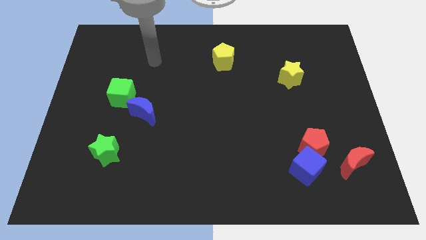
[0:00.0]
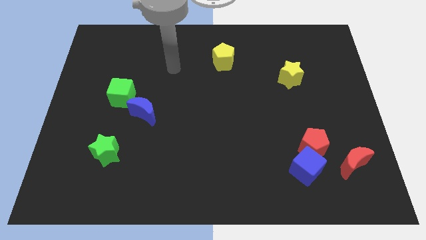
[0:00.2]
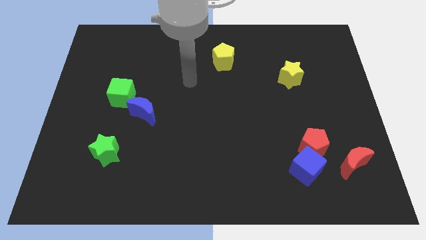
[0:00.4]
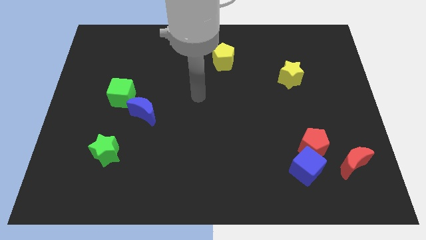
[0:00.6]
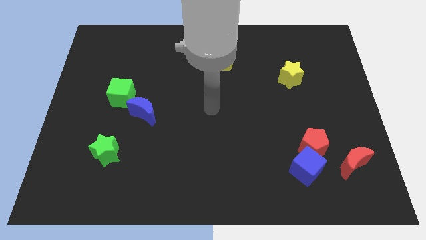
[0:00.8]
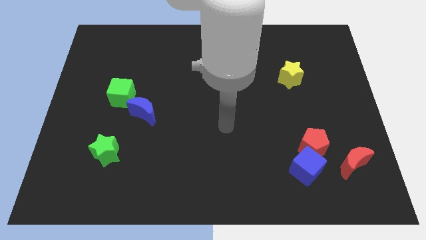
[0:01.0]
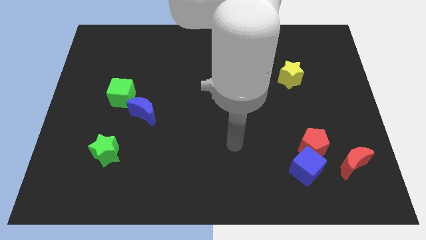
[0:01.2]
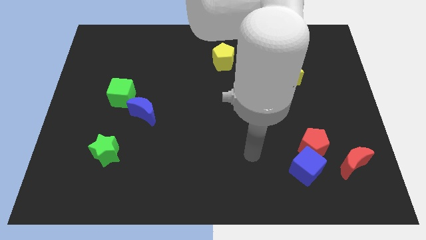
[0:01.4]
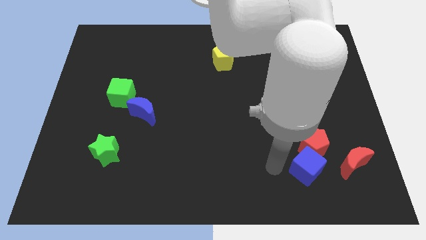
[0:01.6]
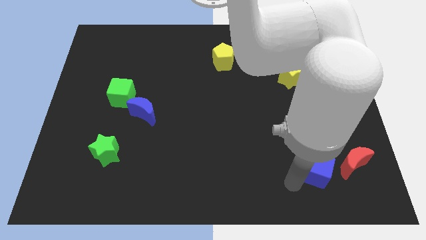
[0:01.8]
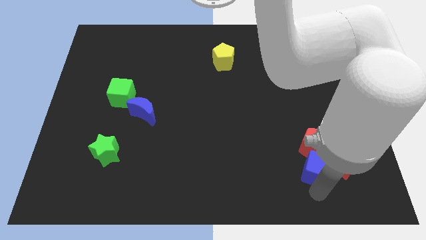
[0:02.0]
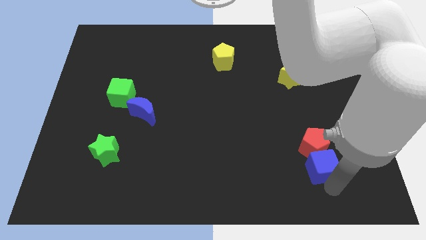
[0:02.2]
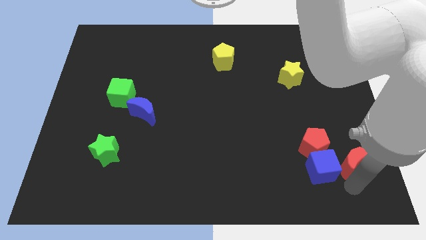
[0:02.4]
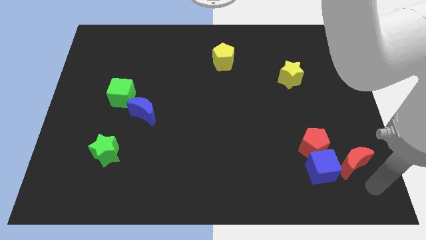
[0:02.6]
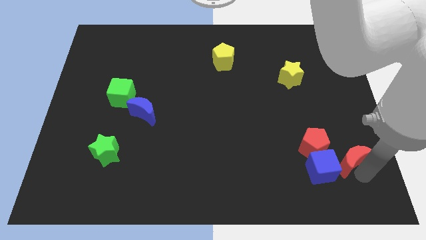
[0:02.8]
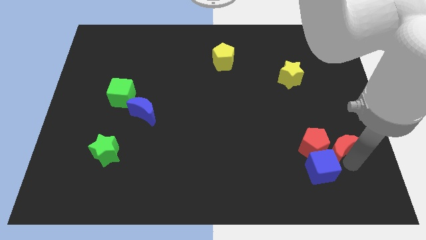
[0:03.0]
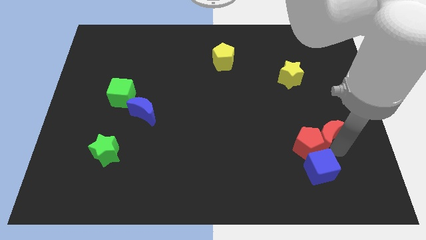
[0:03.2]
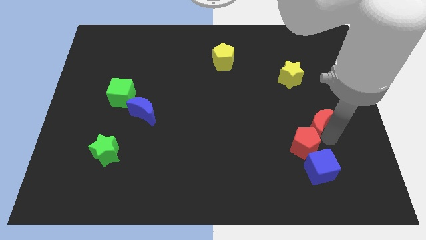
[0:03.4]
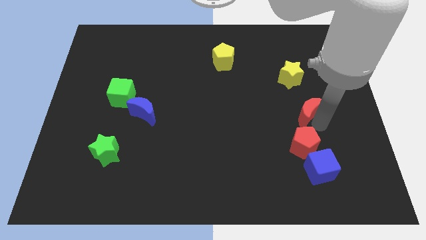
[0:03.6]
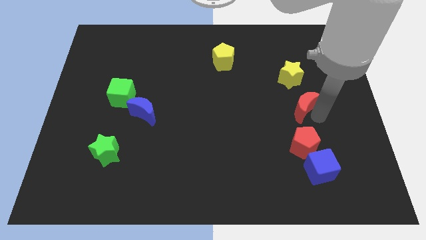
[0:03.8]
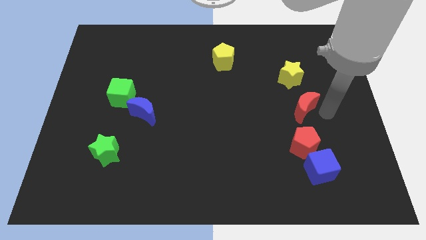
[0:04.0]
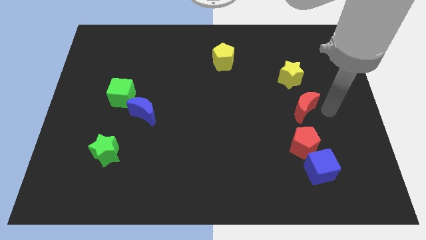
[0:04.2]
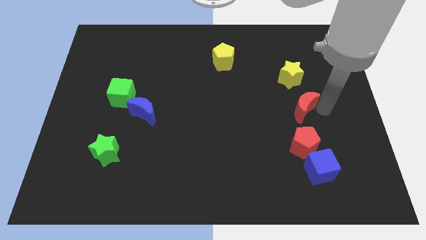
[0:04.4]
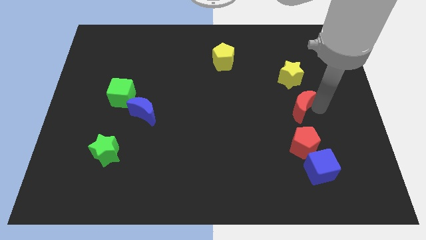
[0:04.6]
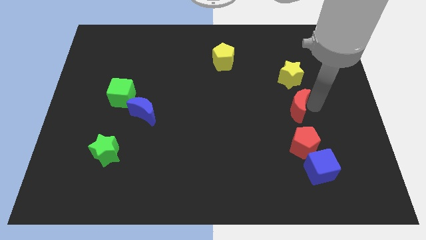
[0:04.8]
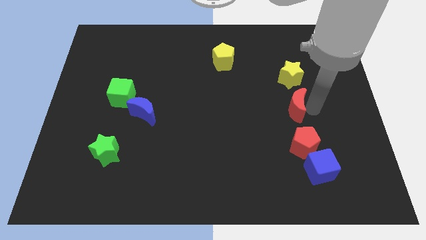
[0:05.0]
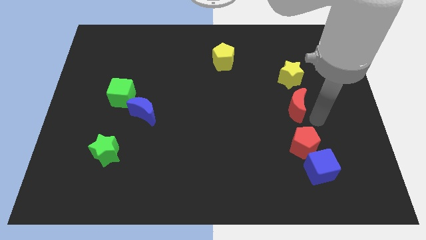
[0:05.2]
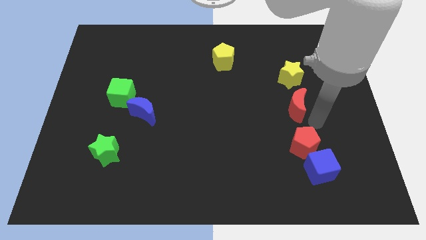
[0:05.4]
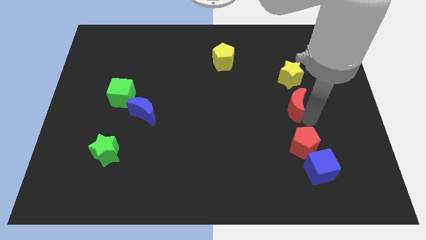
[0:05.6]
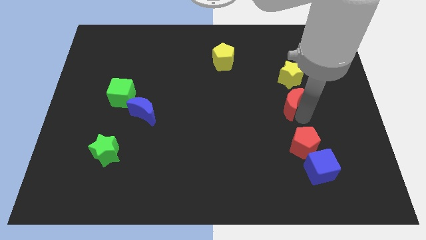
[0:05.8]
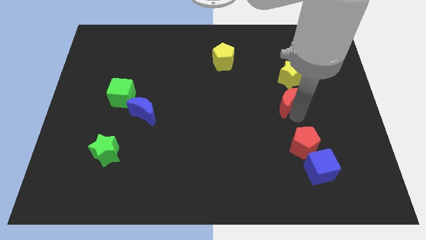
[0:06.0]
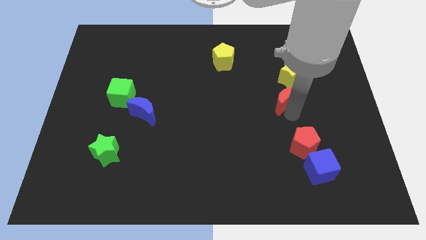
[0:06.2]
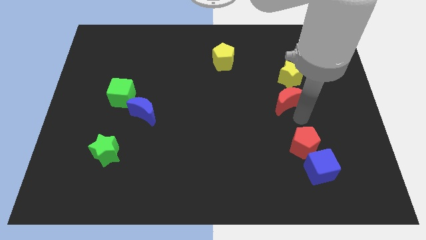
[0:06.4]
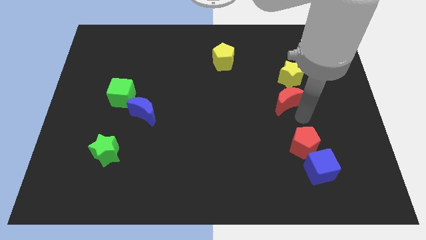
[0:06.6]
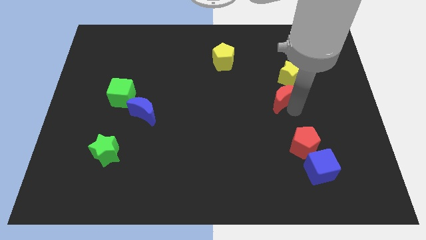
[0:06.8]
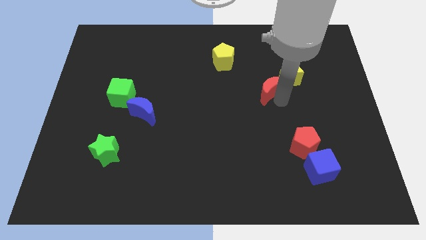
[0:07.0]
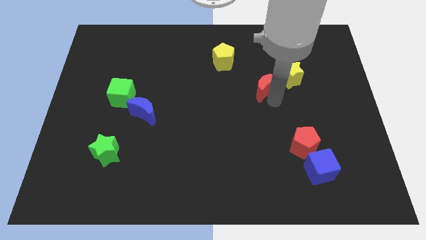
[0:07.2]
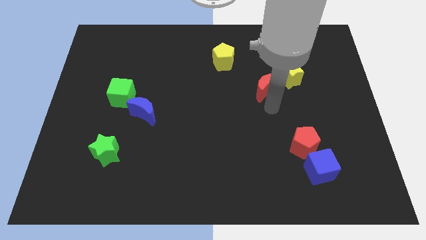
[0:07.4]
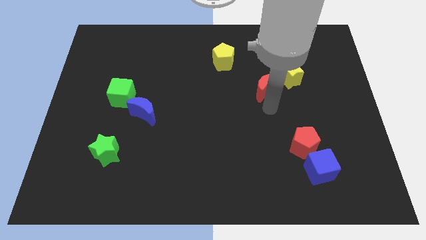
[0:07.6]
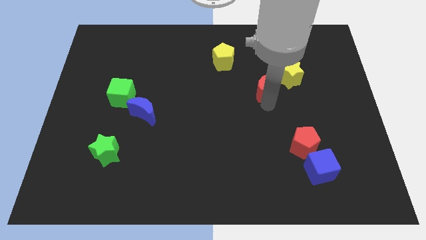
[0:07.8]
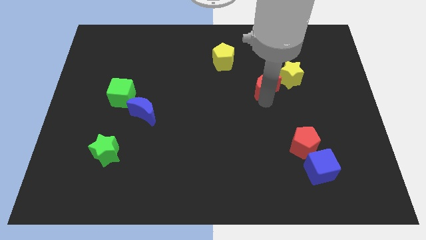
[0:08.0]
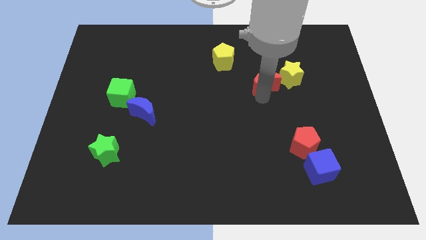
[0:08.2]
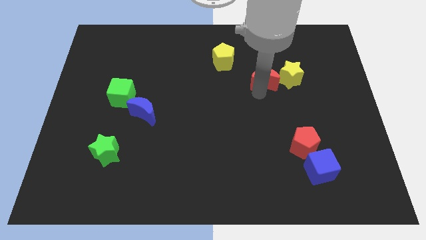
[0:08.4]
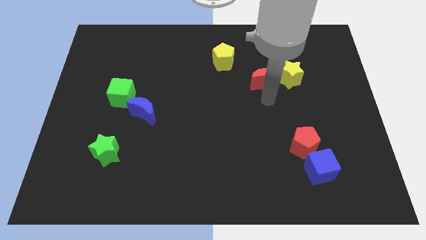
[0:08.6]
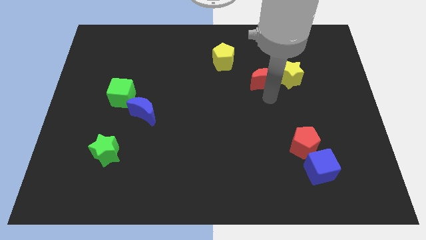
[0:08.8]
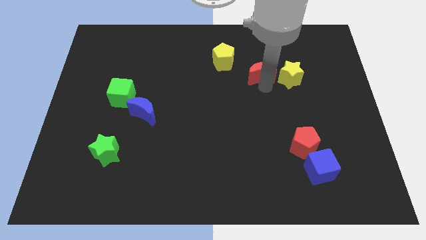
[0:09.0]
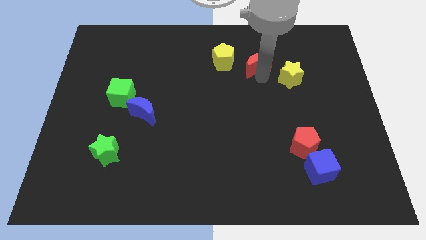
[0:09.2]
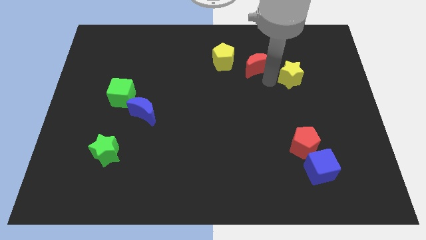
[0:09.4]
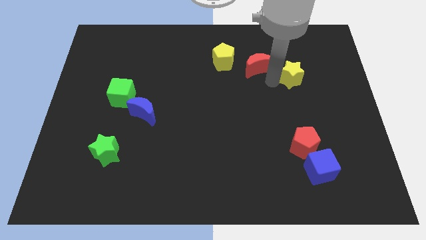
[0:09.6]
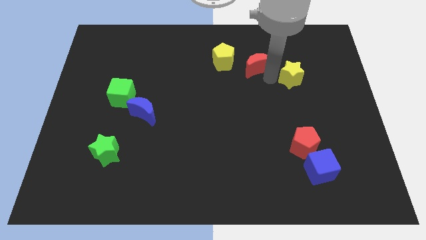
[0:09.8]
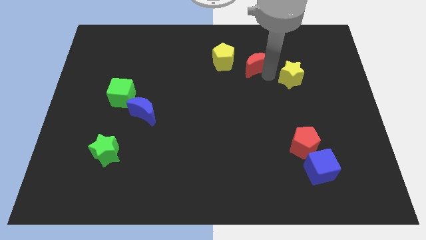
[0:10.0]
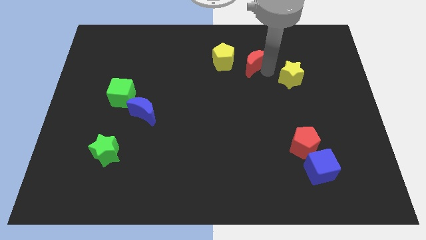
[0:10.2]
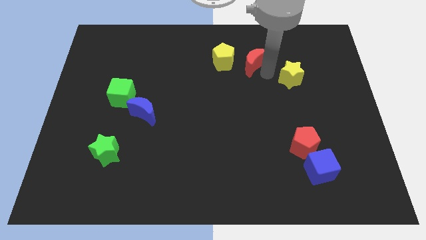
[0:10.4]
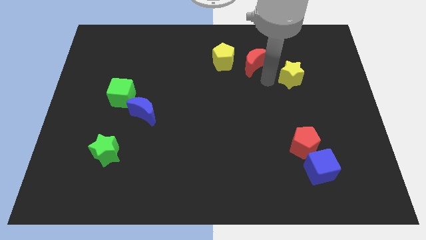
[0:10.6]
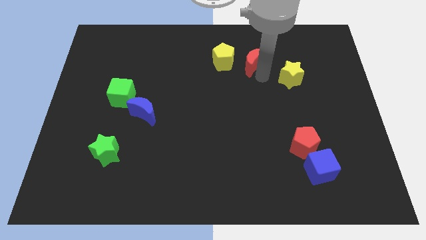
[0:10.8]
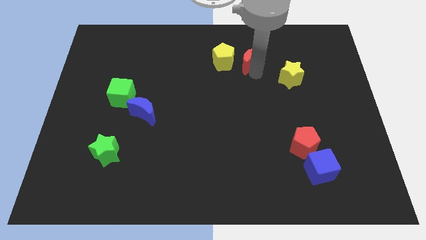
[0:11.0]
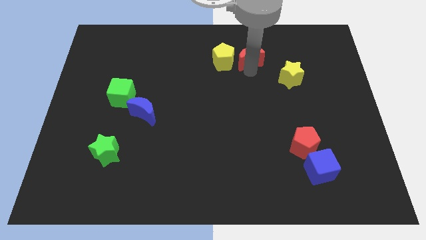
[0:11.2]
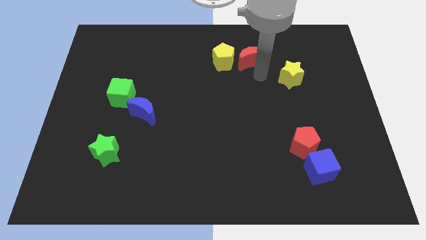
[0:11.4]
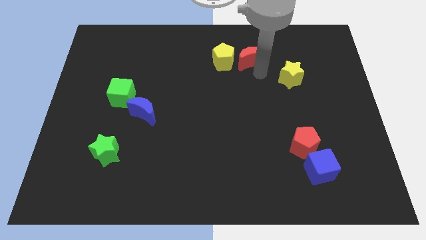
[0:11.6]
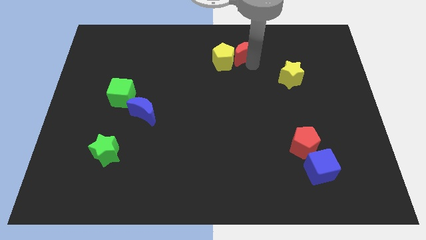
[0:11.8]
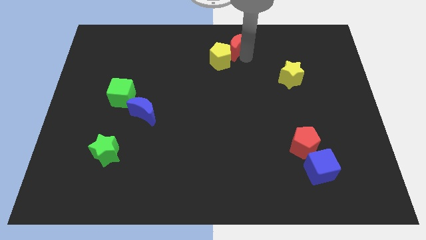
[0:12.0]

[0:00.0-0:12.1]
slide the red moon to the top side
